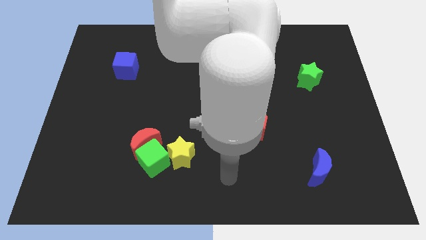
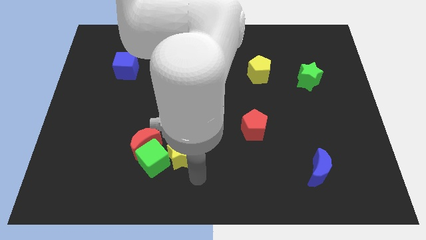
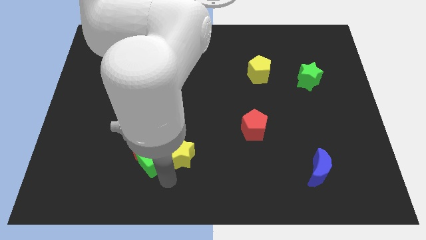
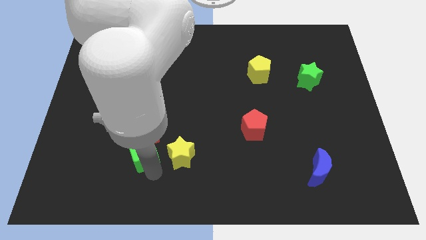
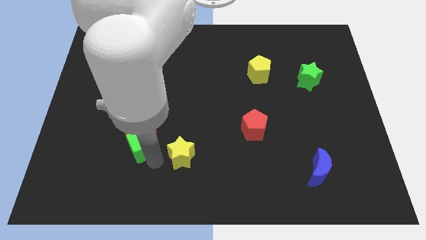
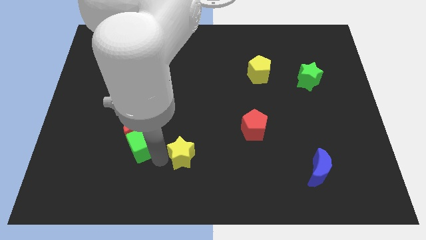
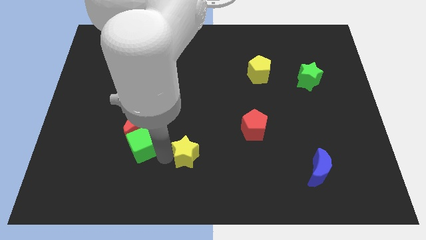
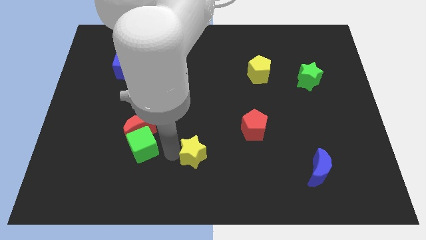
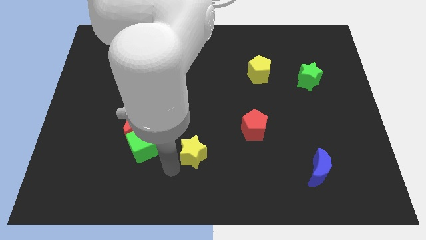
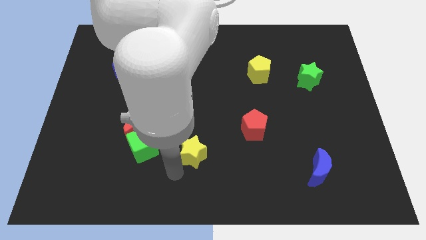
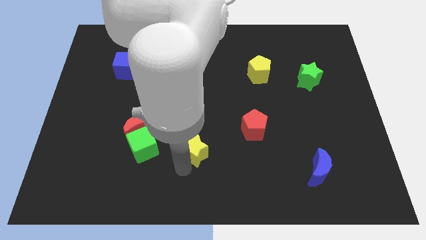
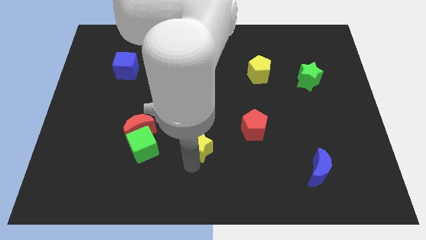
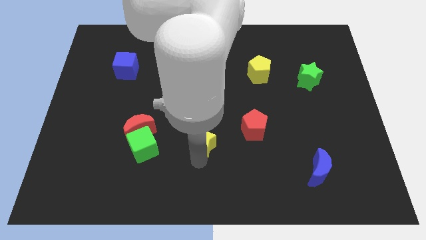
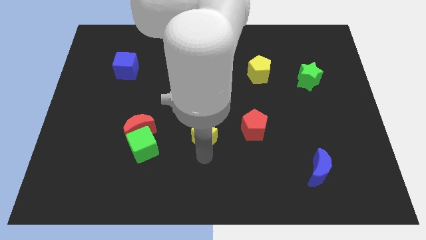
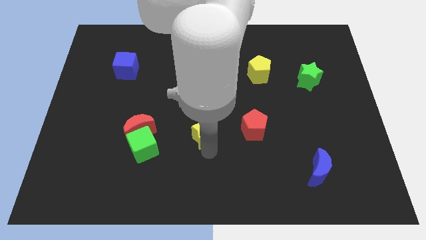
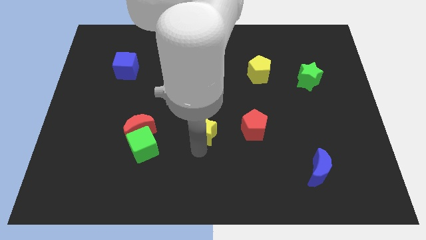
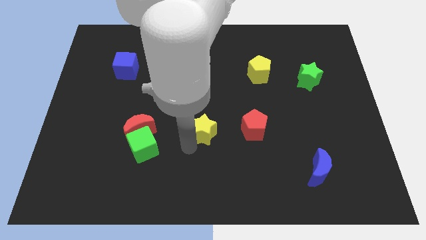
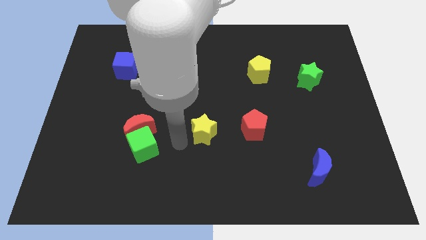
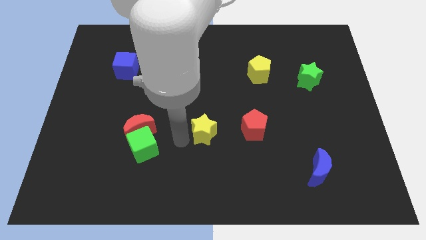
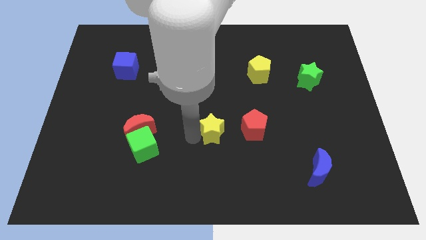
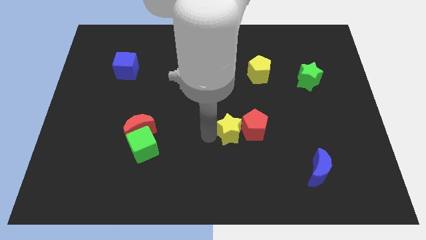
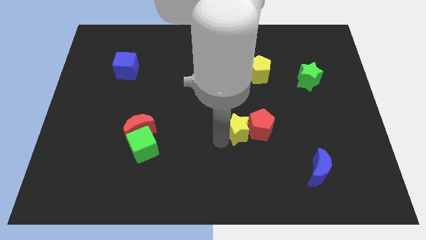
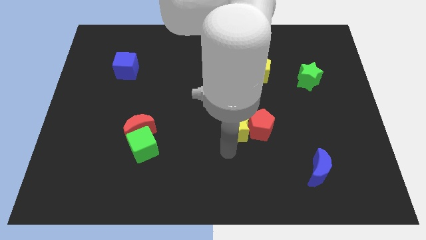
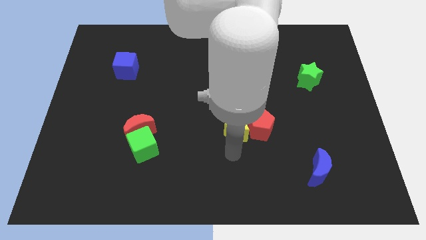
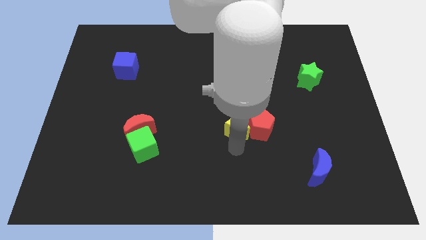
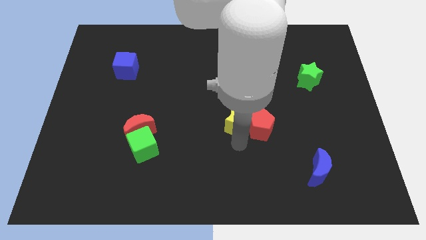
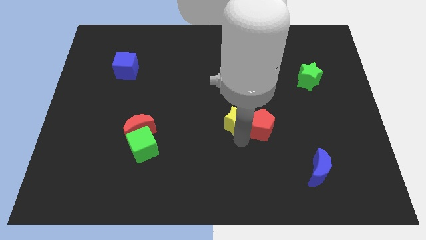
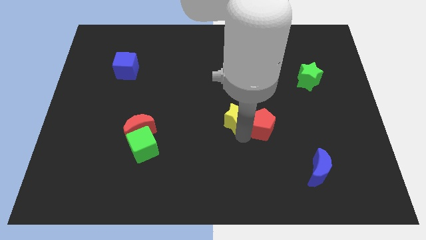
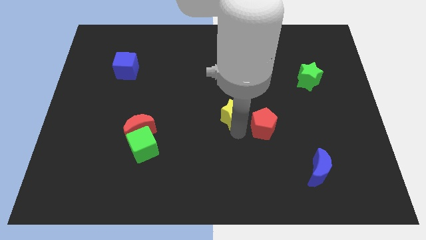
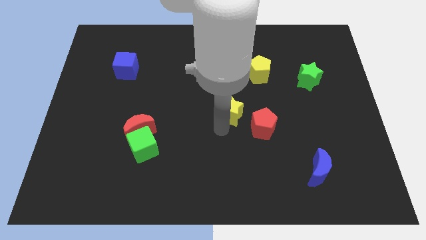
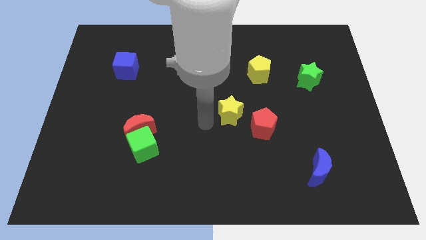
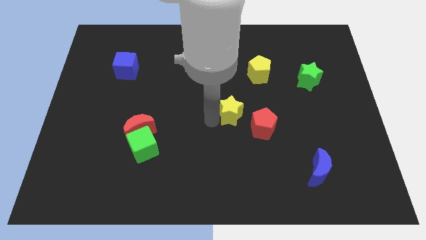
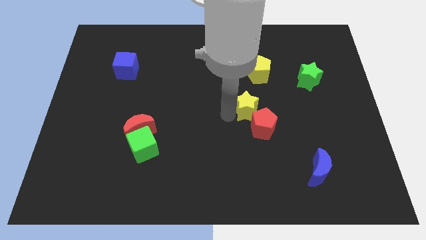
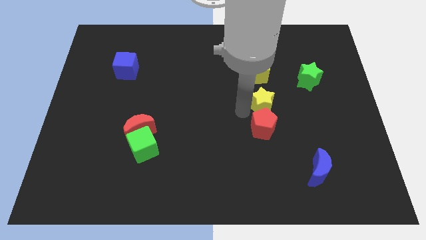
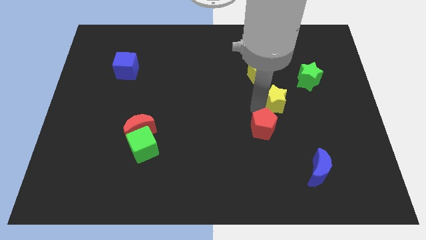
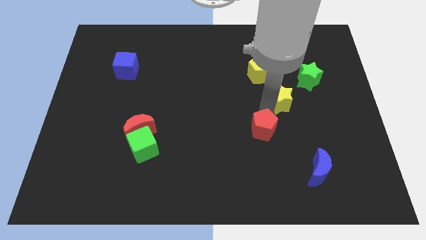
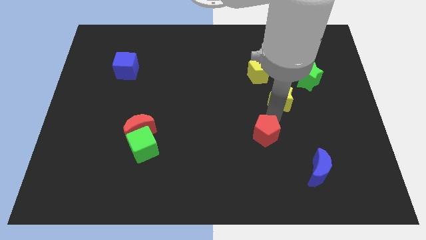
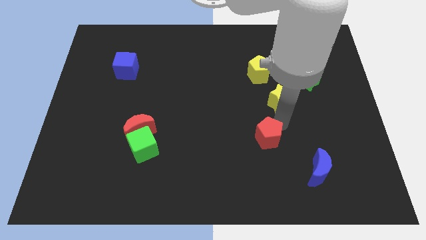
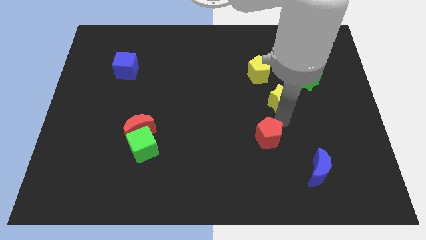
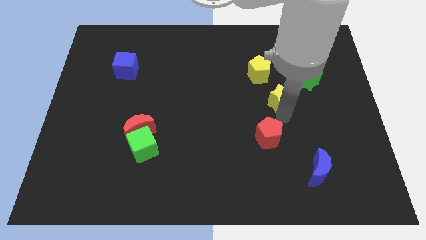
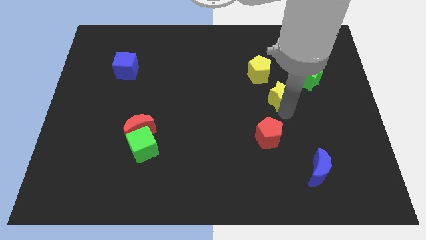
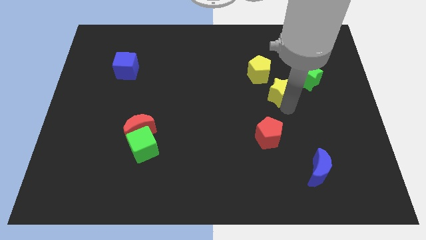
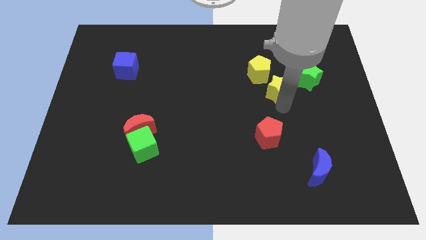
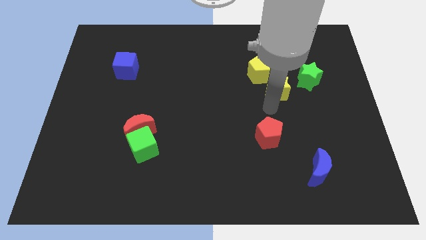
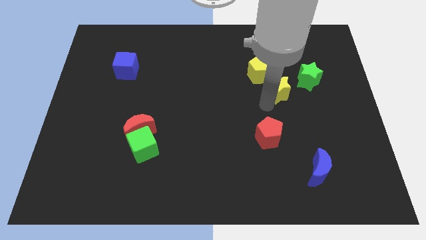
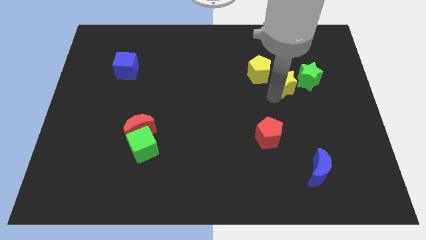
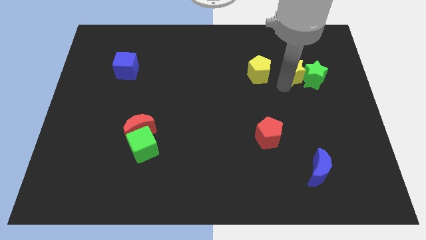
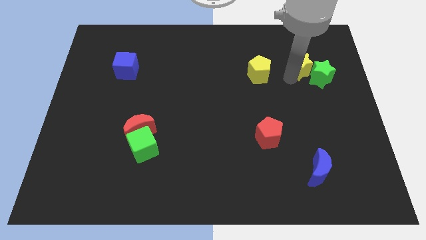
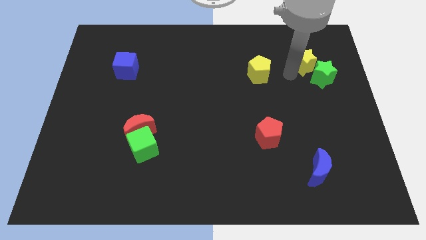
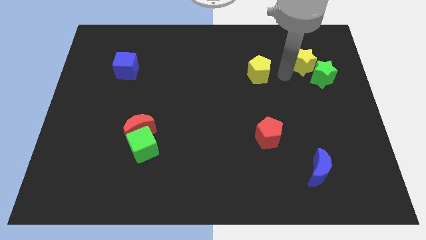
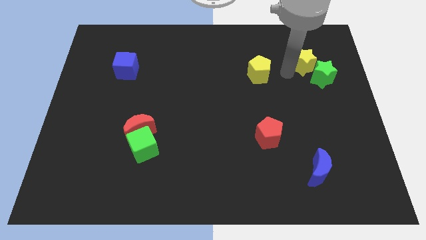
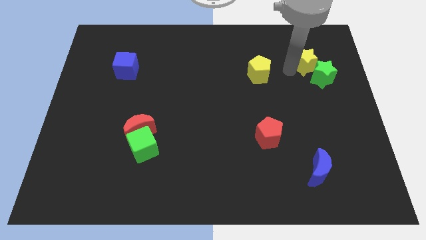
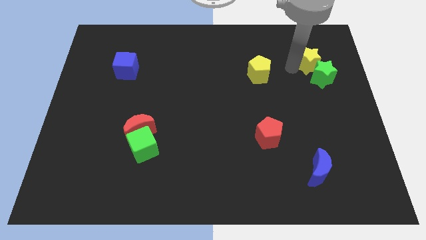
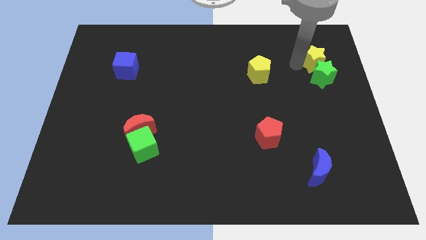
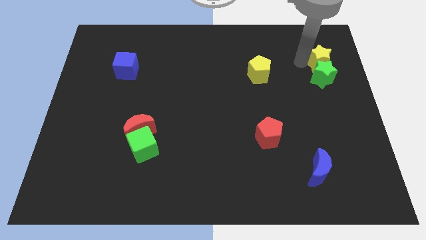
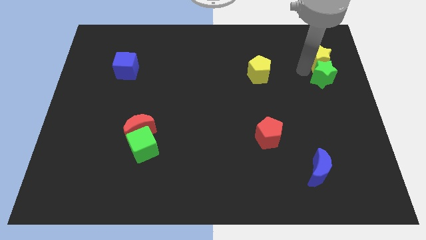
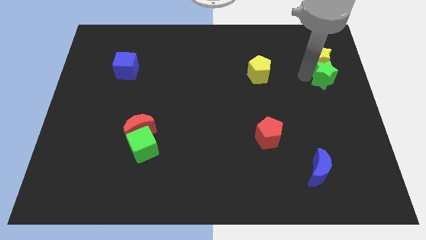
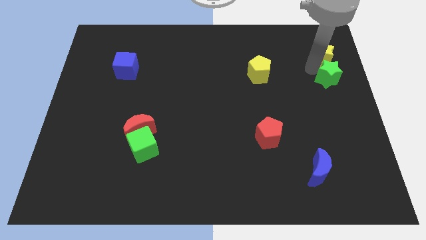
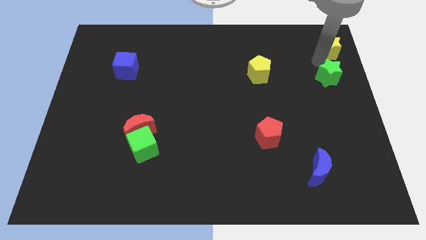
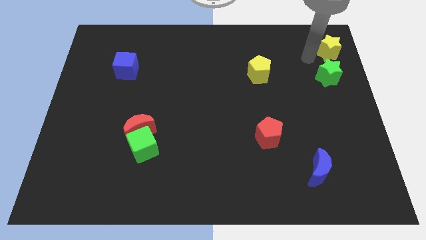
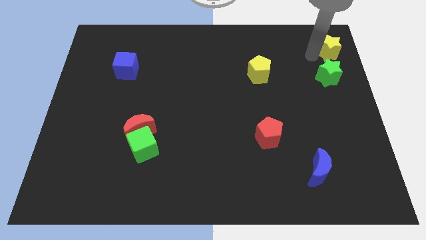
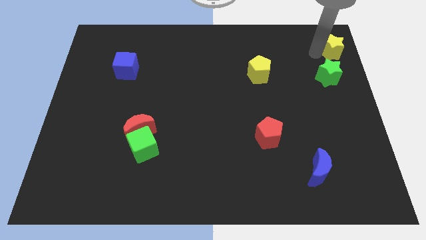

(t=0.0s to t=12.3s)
slide the yellow star to the top right corner
